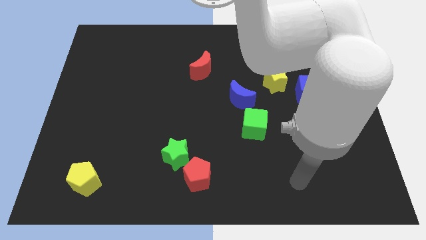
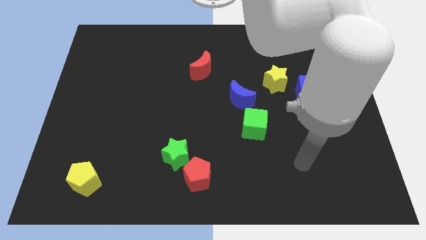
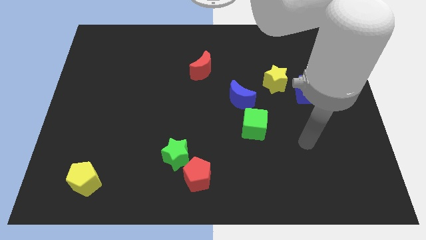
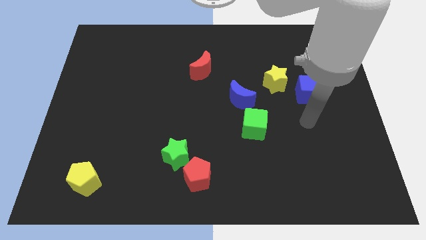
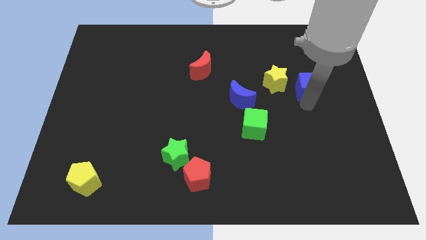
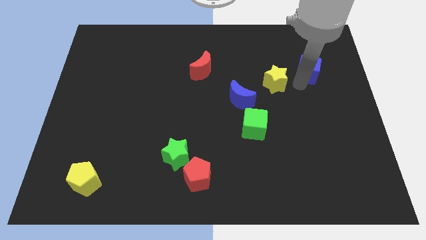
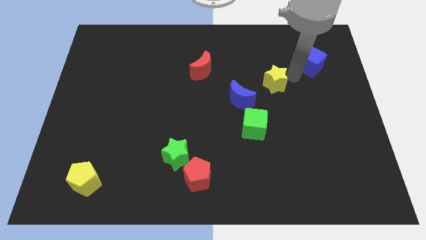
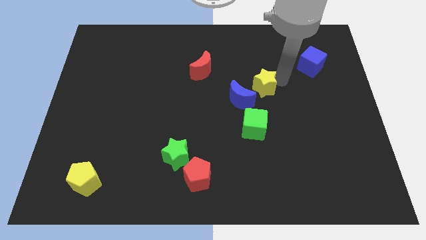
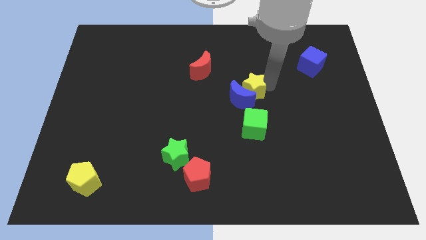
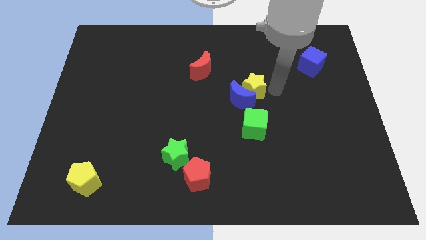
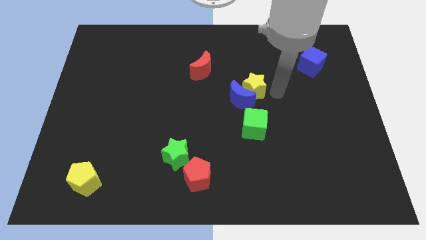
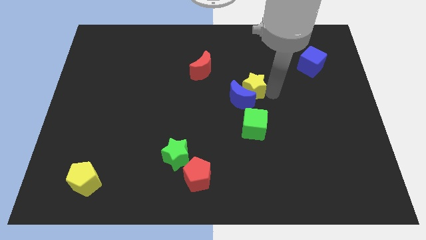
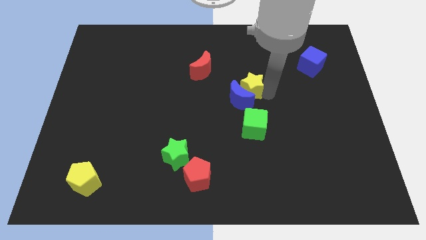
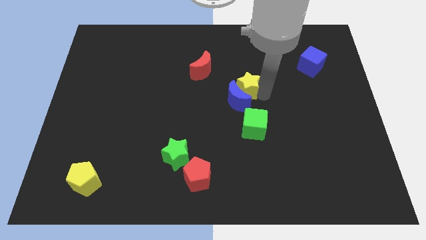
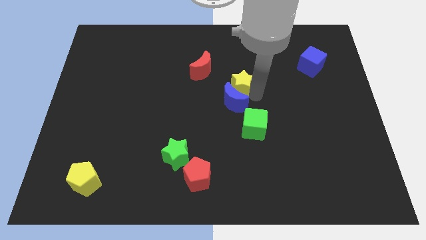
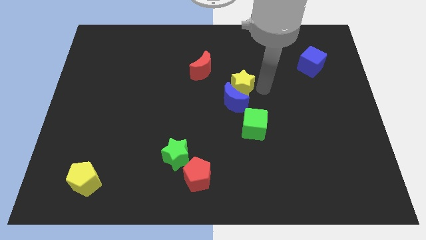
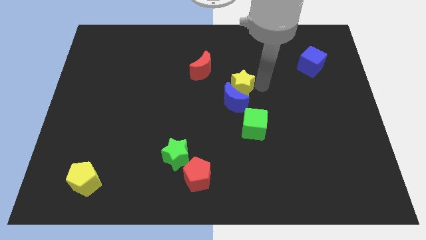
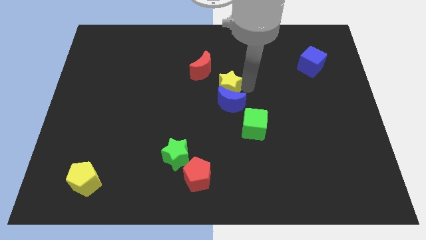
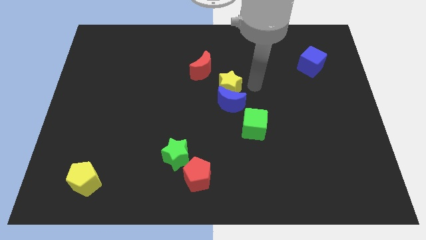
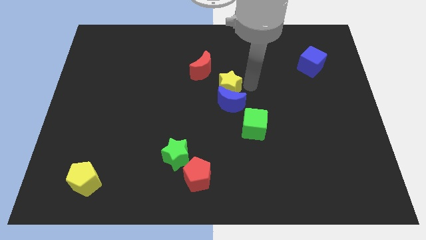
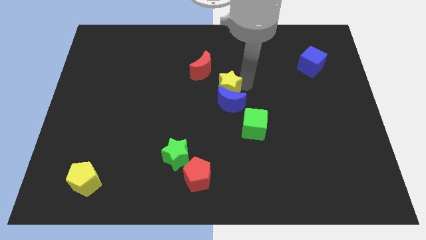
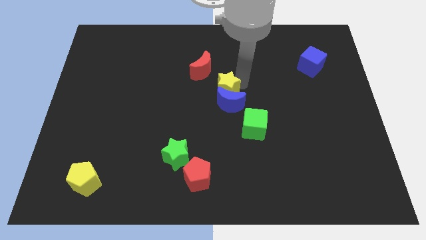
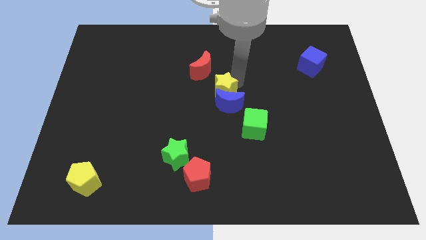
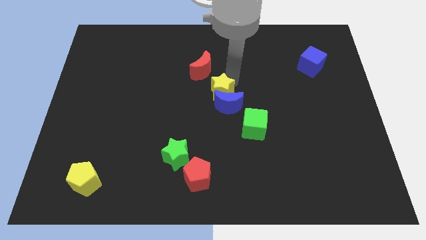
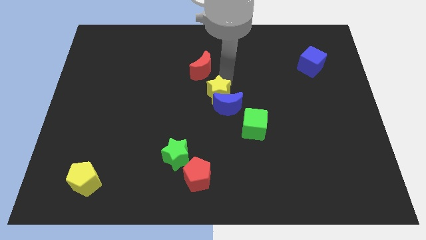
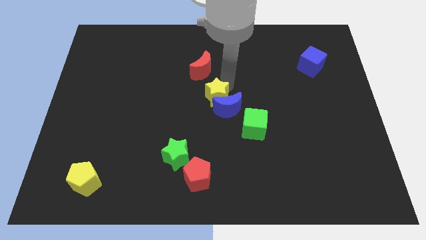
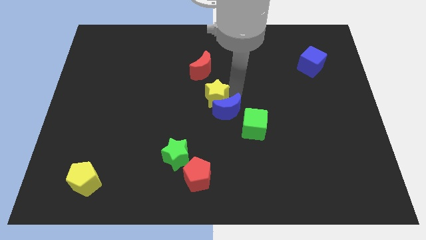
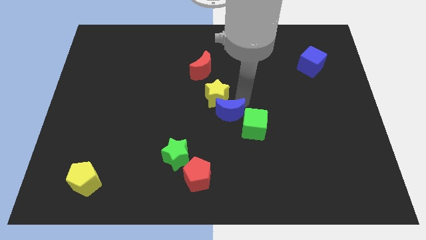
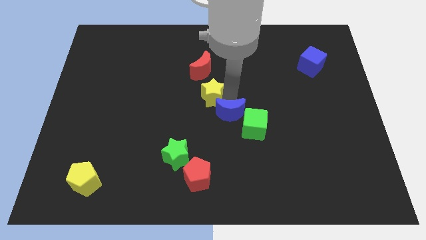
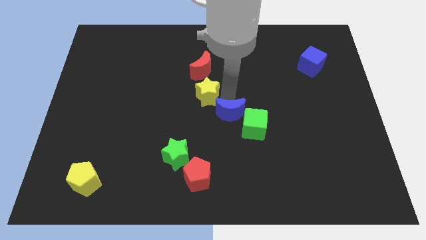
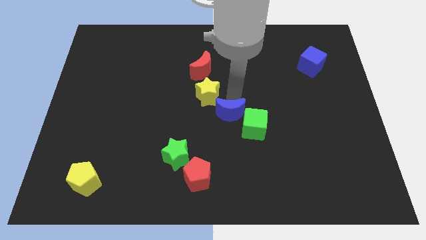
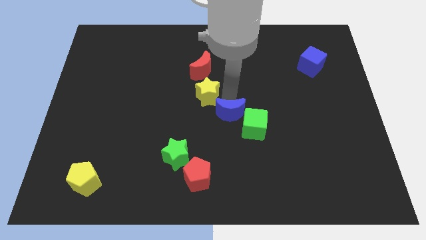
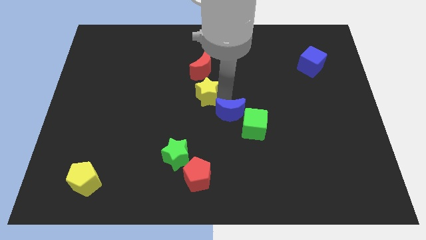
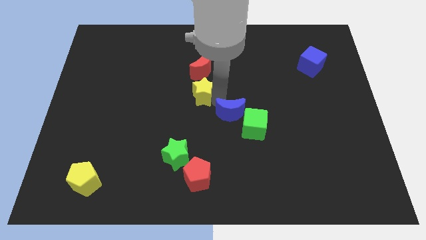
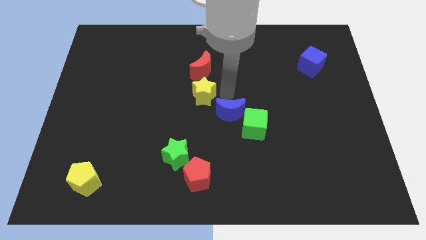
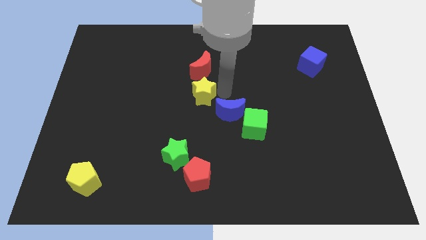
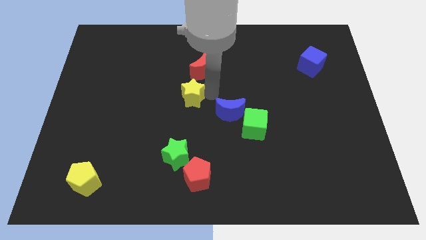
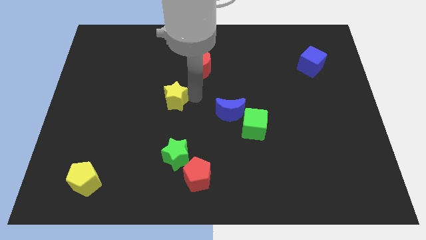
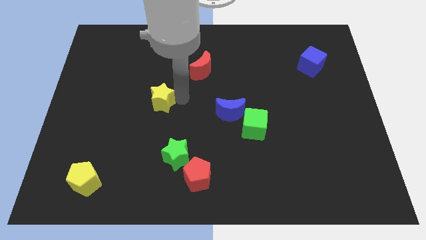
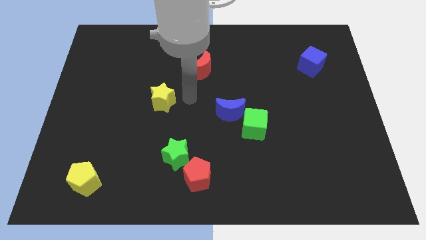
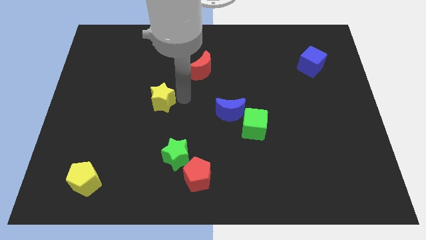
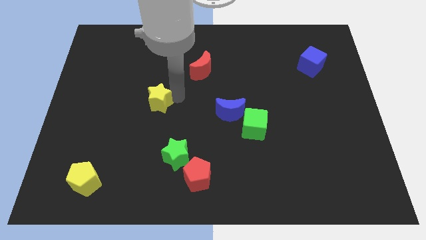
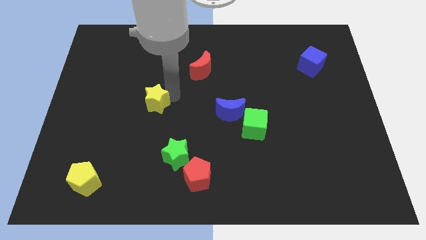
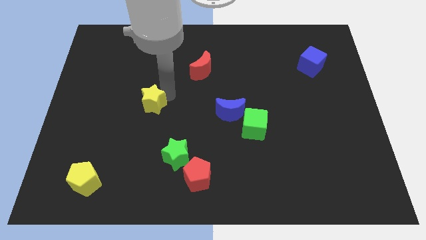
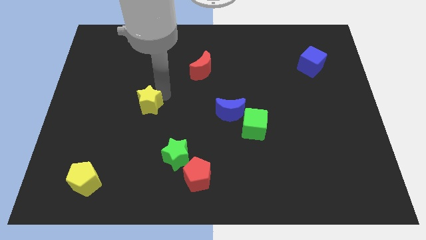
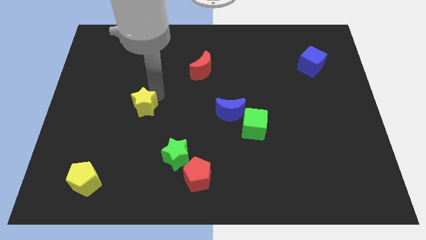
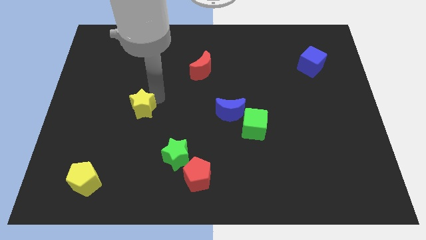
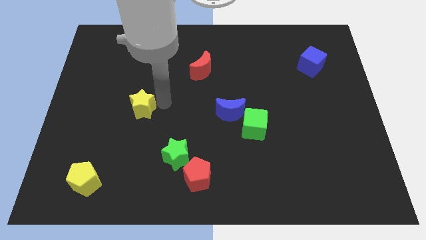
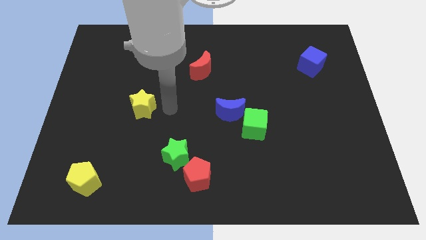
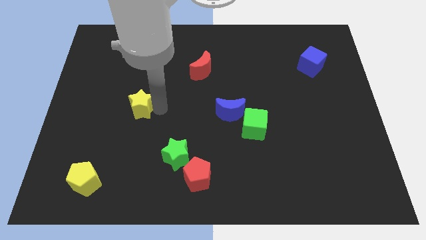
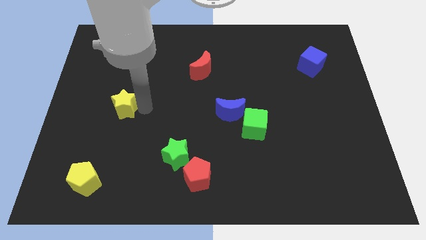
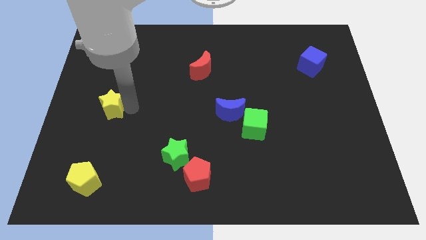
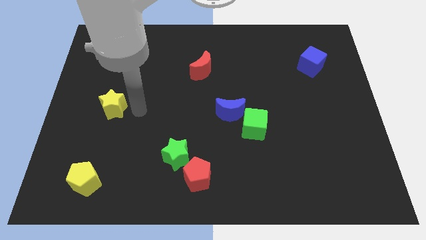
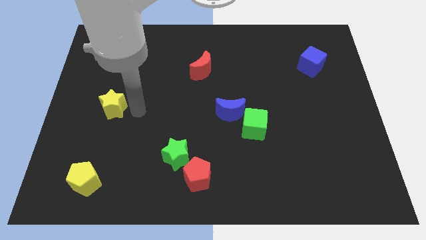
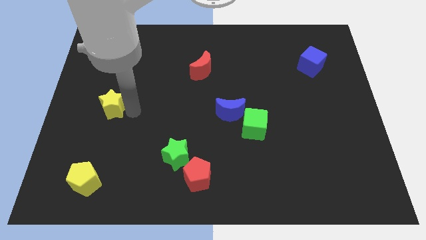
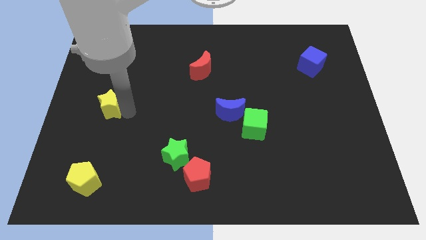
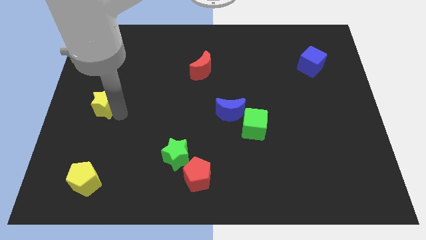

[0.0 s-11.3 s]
slide the yellow star to the left side
